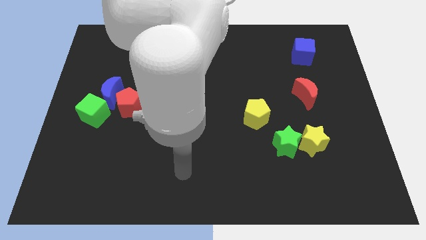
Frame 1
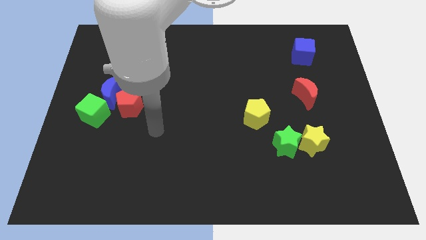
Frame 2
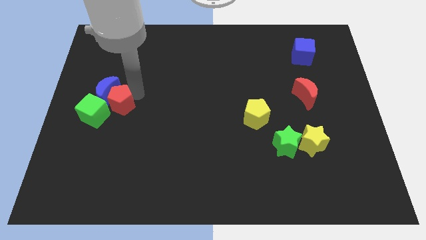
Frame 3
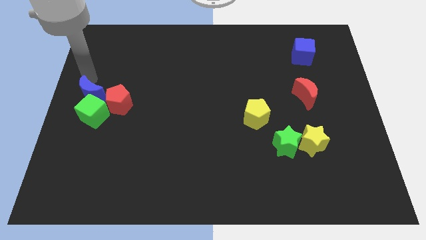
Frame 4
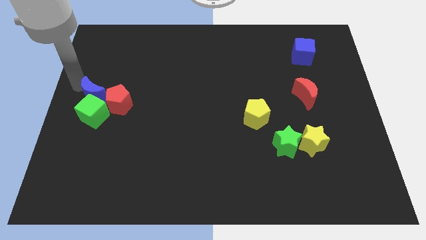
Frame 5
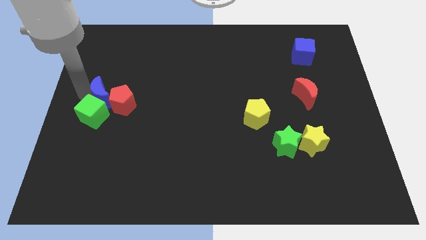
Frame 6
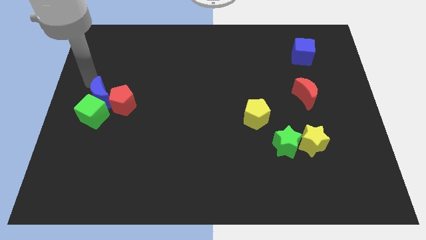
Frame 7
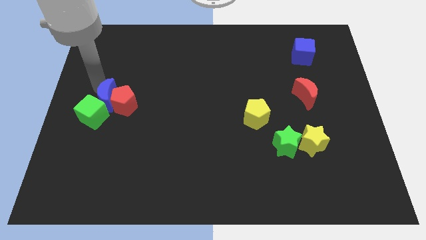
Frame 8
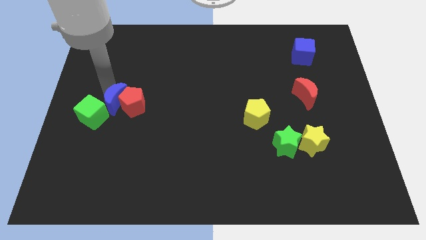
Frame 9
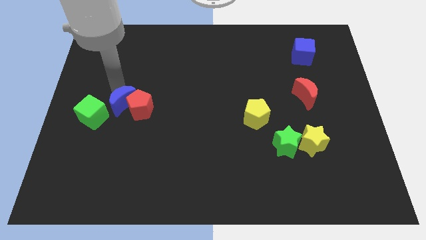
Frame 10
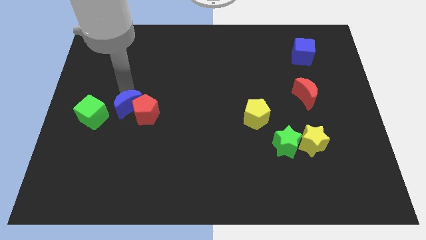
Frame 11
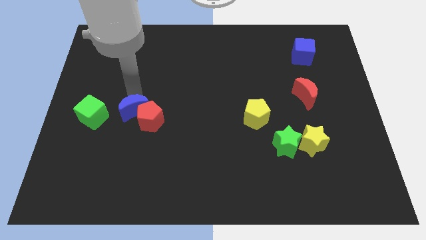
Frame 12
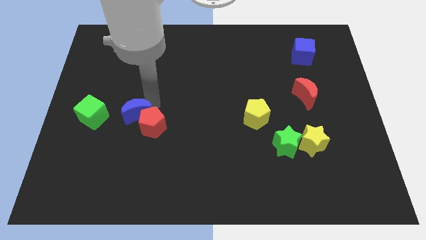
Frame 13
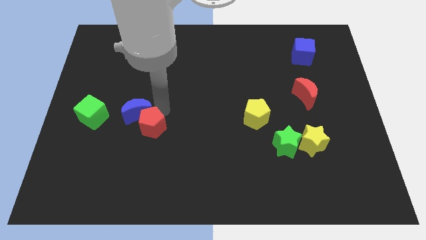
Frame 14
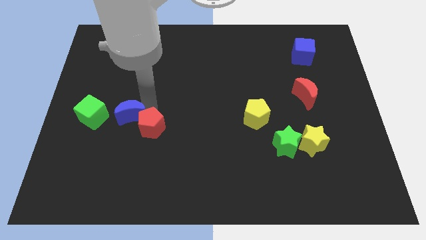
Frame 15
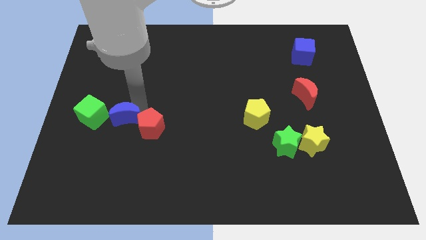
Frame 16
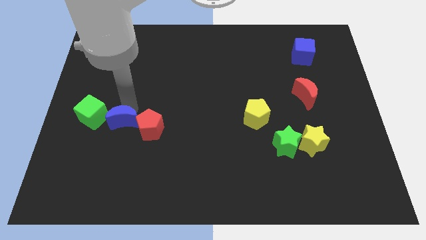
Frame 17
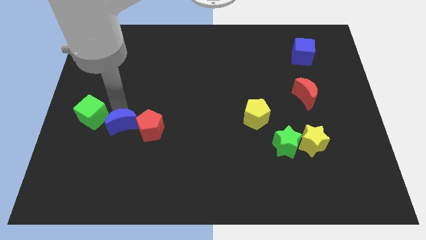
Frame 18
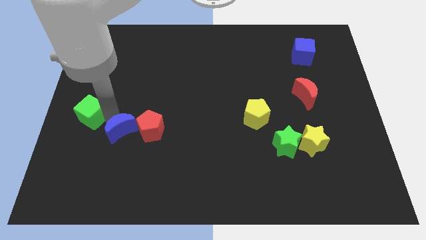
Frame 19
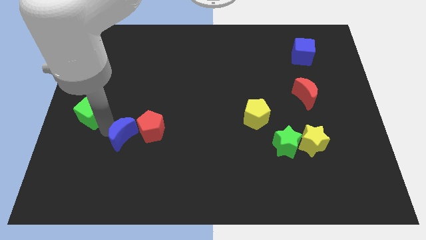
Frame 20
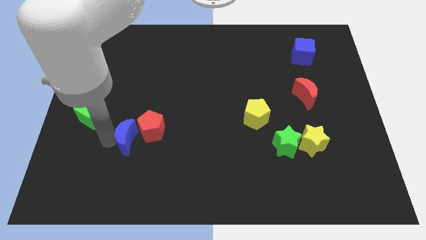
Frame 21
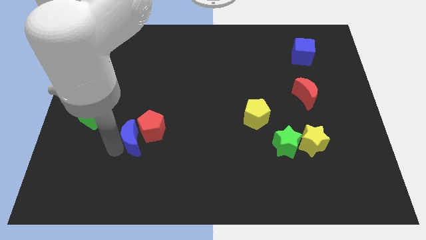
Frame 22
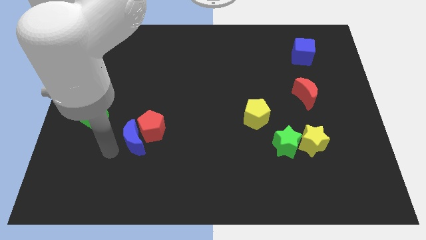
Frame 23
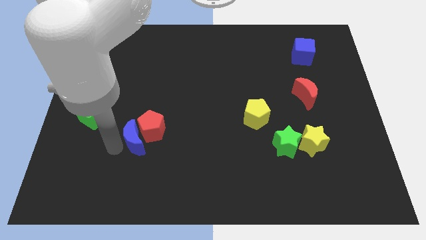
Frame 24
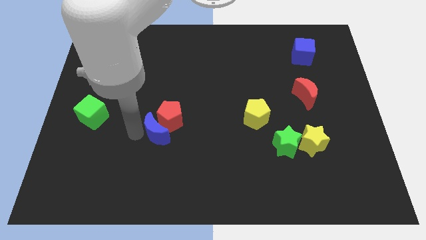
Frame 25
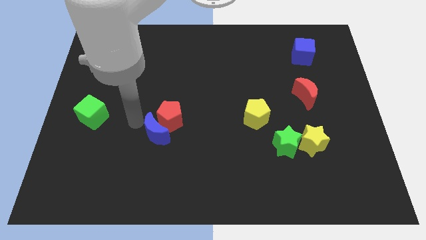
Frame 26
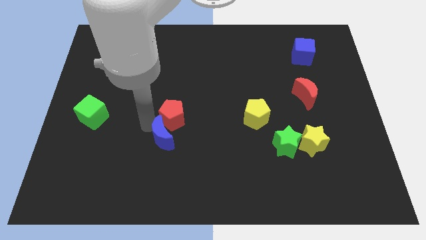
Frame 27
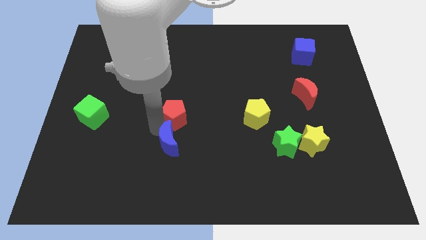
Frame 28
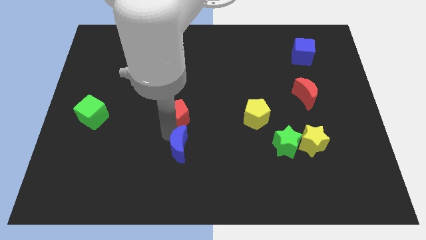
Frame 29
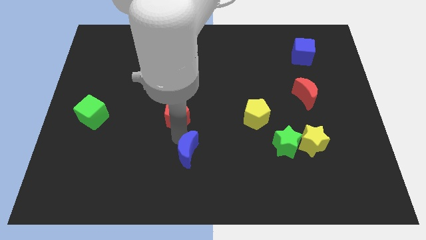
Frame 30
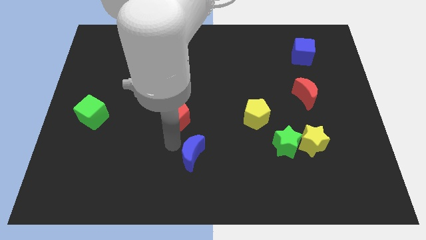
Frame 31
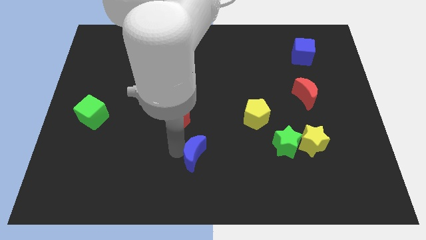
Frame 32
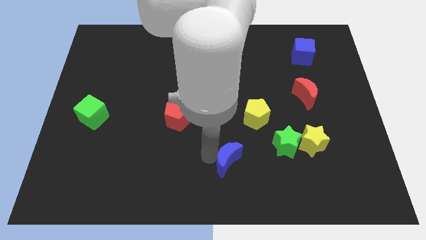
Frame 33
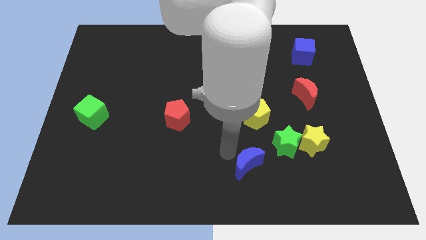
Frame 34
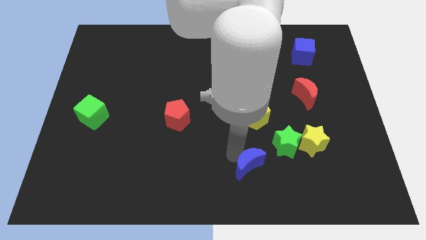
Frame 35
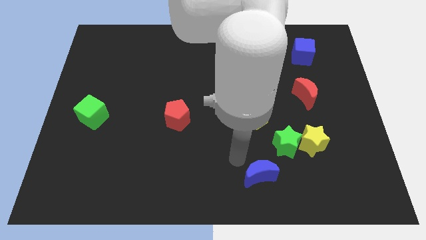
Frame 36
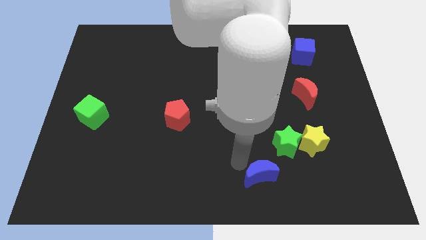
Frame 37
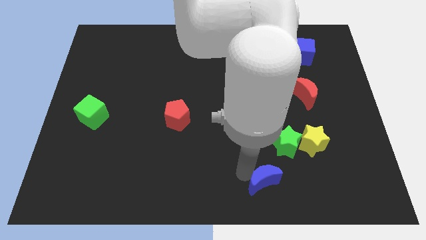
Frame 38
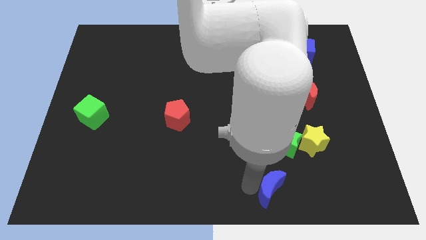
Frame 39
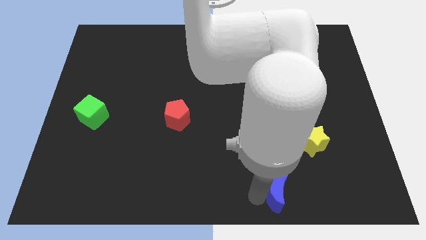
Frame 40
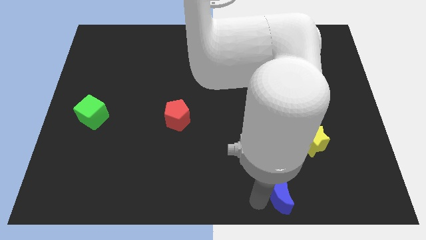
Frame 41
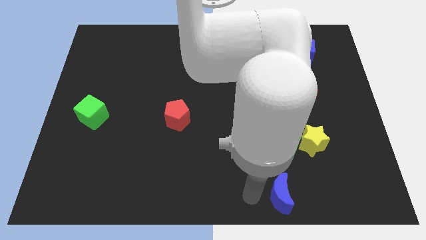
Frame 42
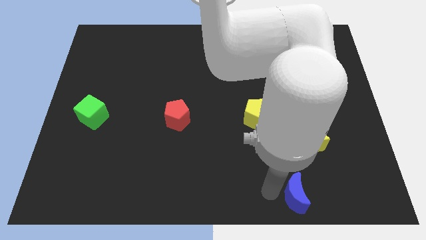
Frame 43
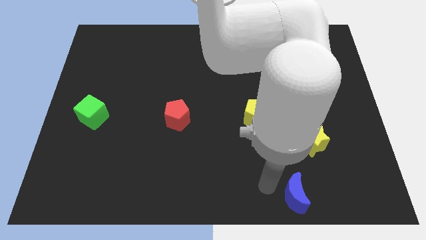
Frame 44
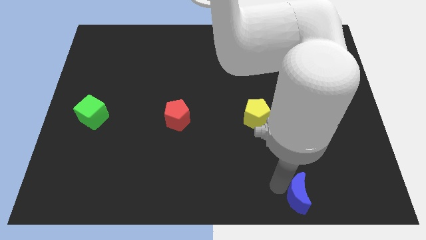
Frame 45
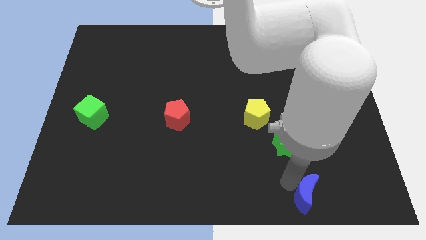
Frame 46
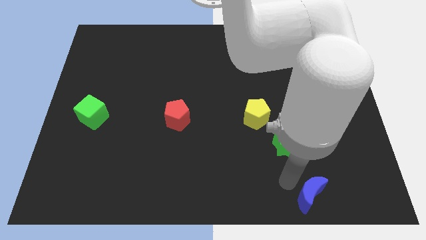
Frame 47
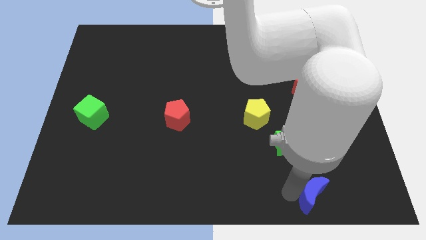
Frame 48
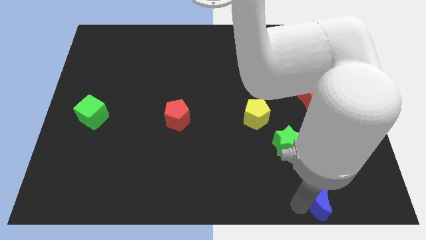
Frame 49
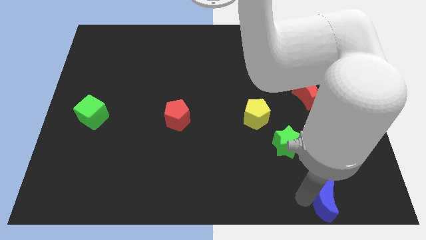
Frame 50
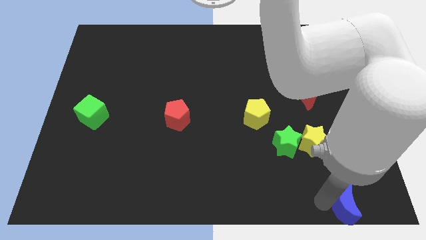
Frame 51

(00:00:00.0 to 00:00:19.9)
slide the blue moon to the lower right corner

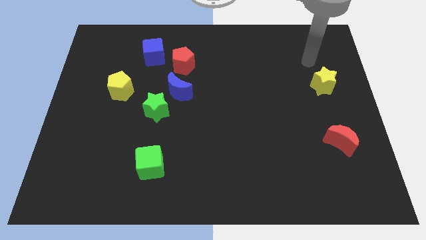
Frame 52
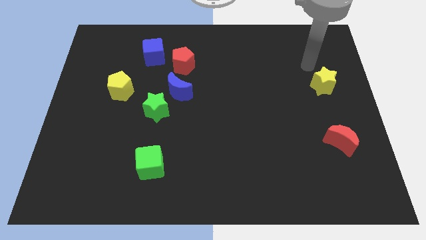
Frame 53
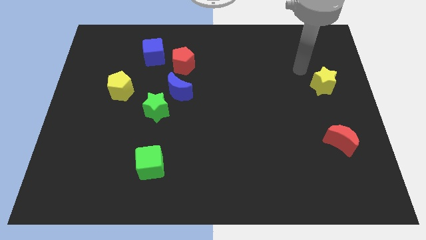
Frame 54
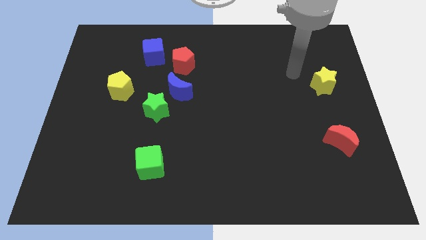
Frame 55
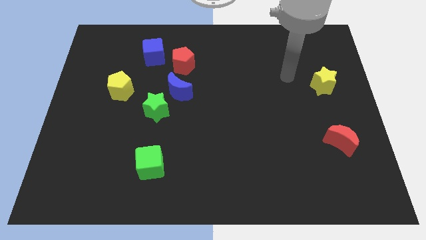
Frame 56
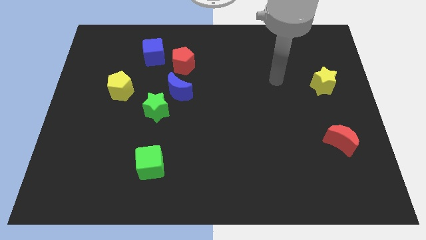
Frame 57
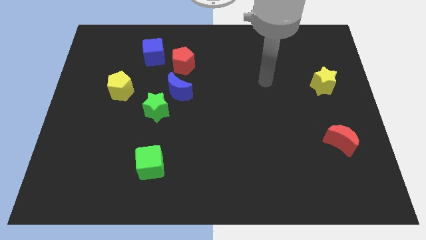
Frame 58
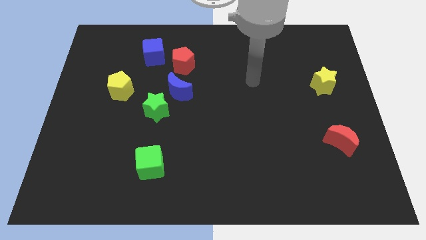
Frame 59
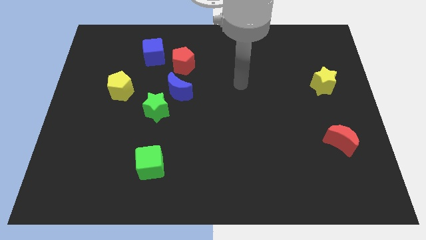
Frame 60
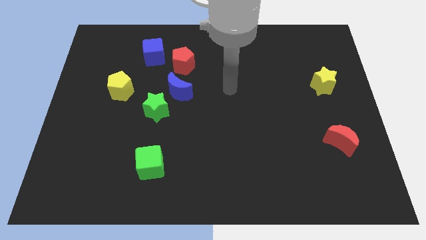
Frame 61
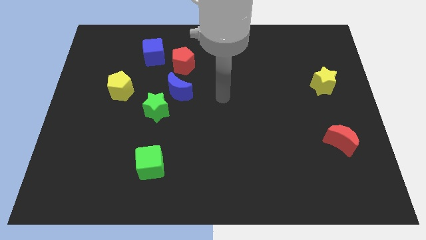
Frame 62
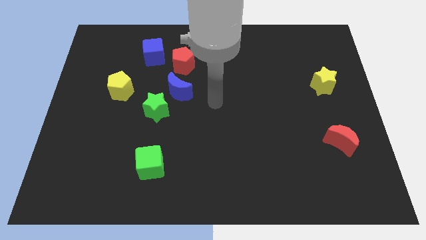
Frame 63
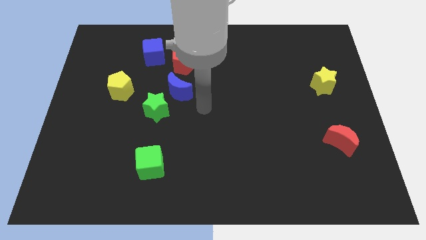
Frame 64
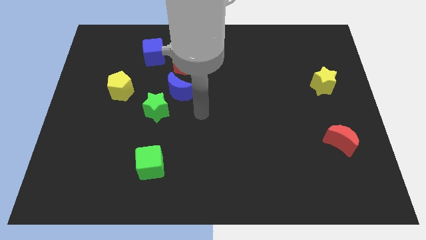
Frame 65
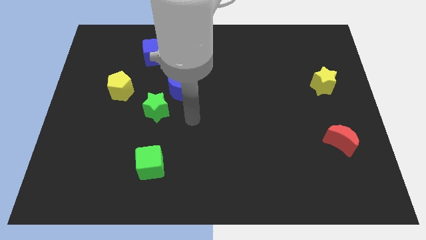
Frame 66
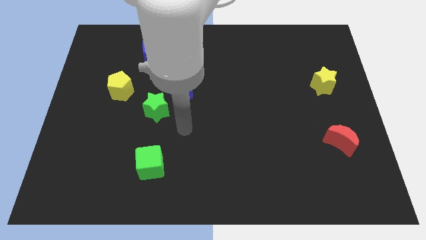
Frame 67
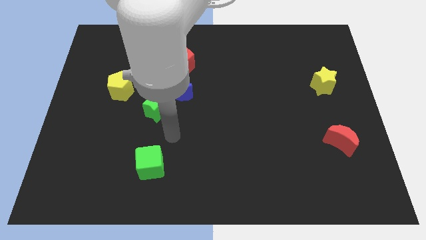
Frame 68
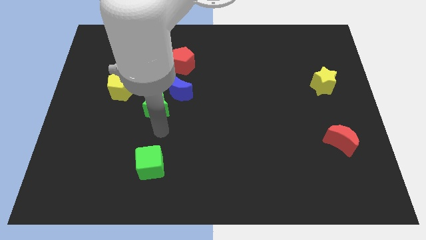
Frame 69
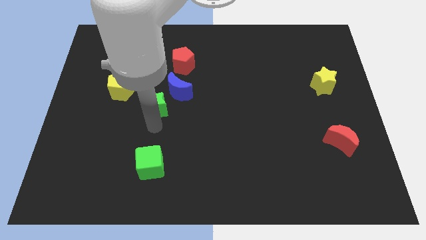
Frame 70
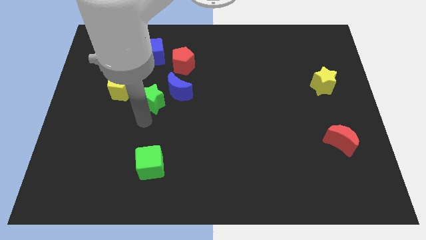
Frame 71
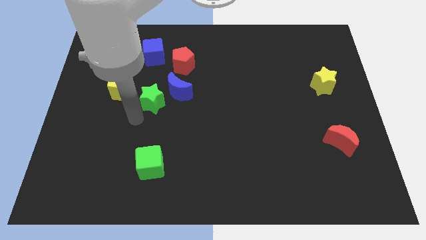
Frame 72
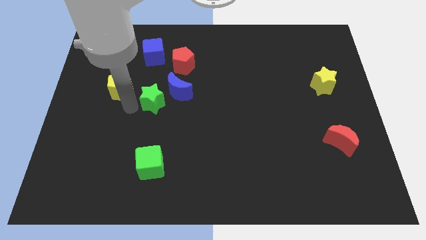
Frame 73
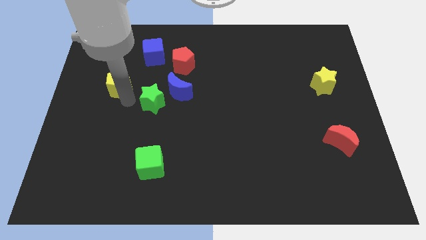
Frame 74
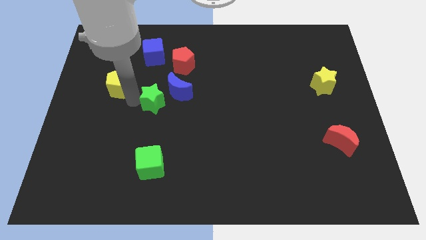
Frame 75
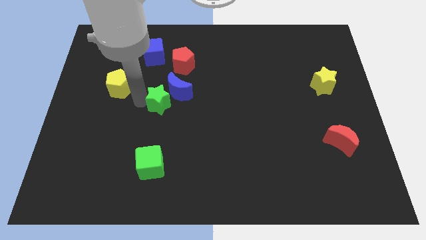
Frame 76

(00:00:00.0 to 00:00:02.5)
push the green star to the middle
